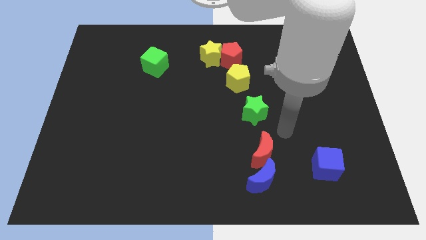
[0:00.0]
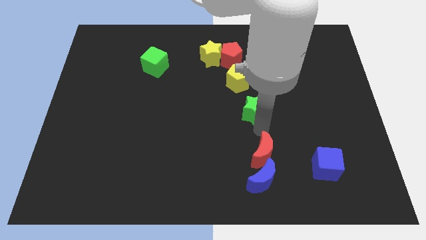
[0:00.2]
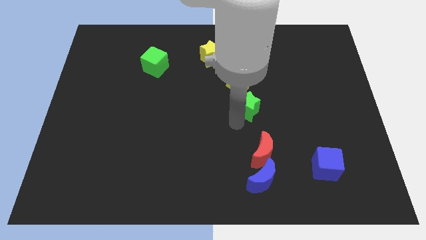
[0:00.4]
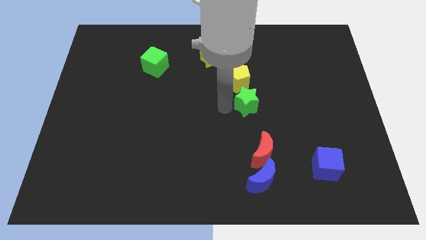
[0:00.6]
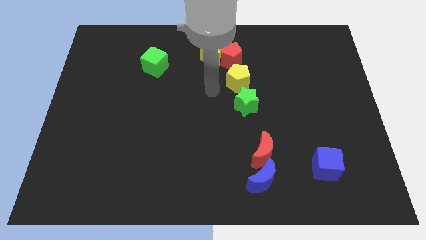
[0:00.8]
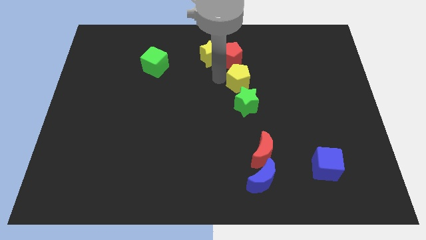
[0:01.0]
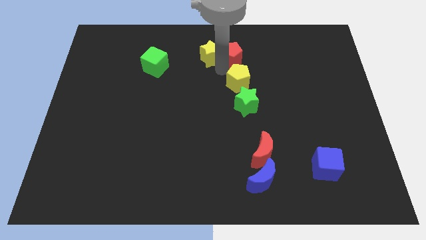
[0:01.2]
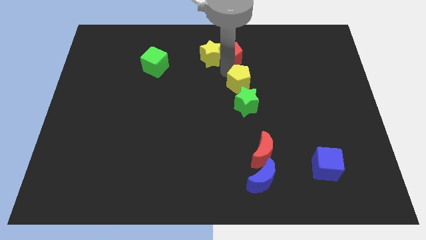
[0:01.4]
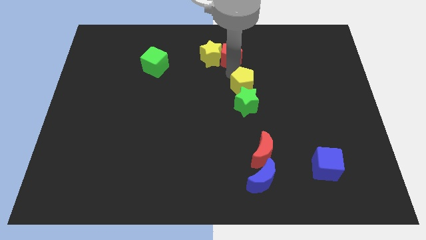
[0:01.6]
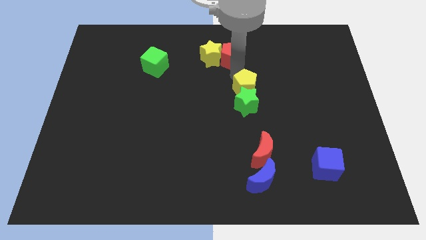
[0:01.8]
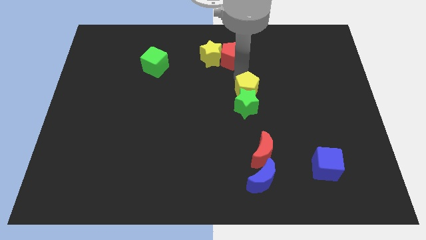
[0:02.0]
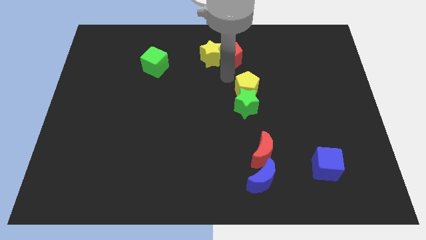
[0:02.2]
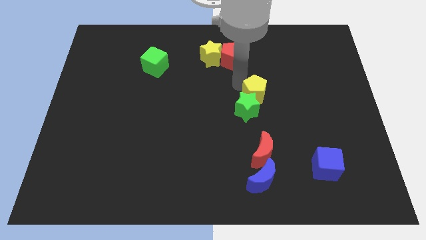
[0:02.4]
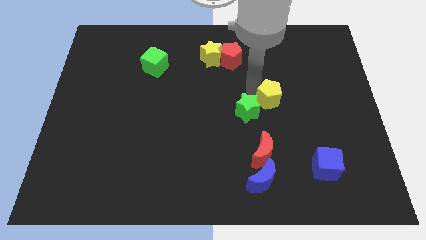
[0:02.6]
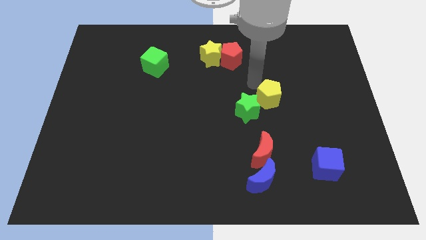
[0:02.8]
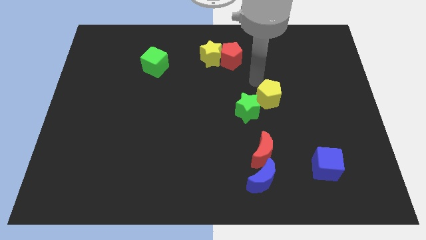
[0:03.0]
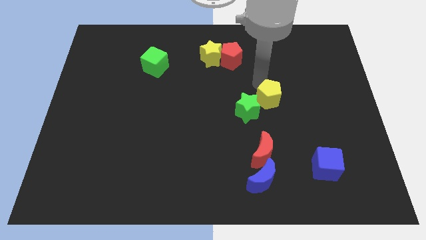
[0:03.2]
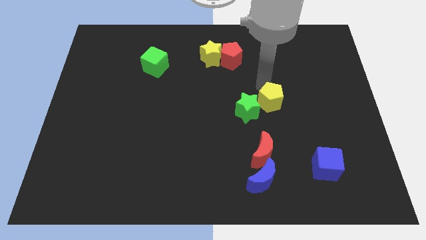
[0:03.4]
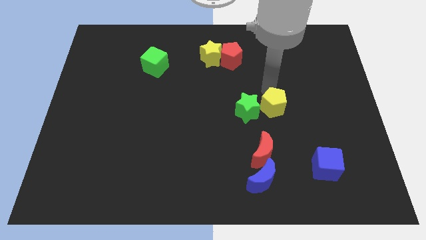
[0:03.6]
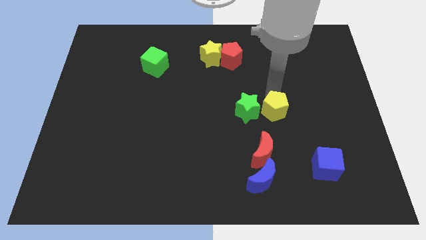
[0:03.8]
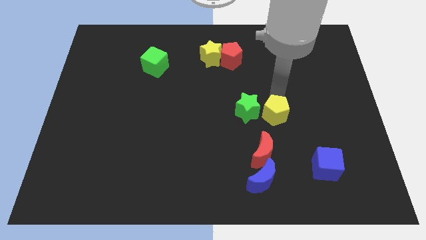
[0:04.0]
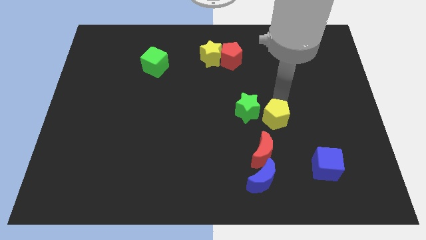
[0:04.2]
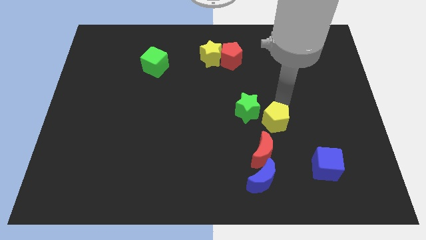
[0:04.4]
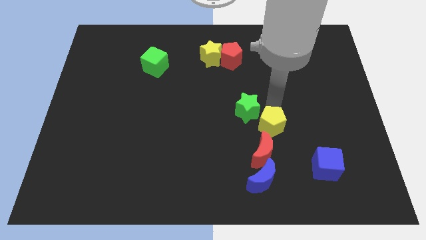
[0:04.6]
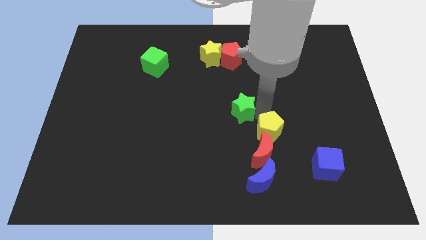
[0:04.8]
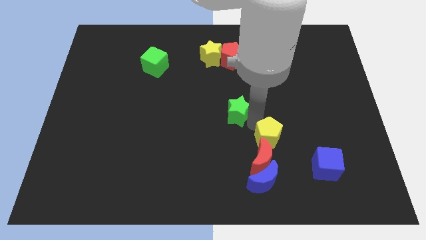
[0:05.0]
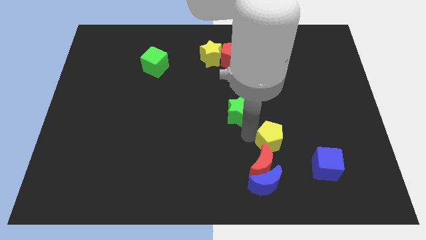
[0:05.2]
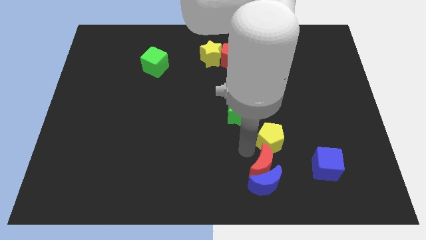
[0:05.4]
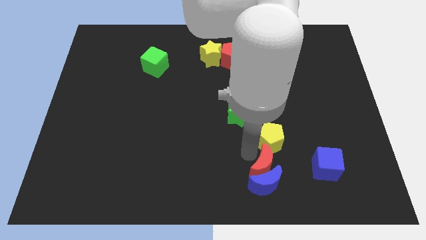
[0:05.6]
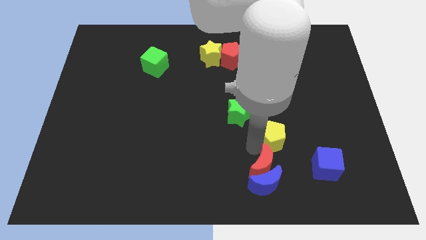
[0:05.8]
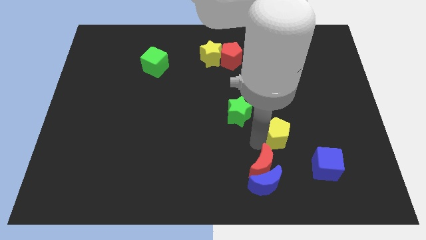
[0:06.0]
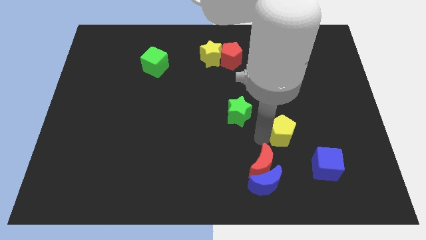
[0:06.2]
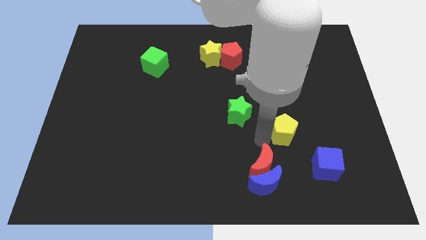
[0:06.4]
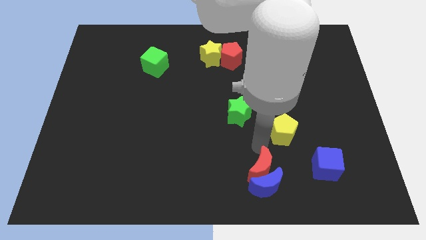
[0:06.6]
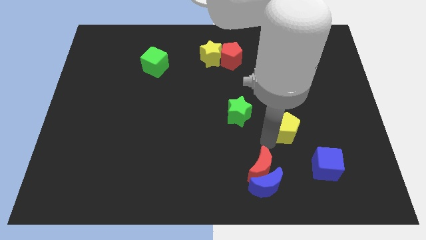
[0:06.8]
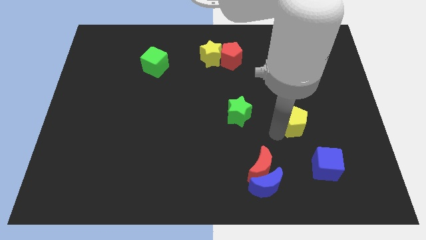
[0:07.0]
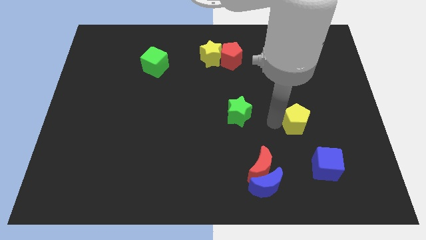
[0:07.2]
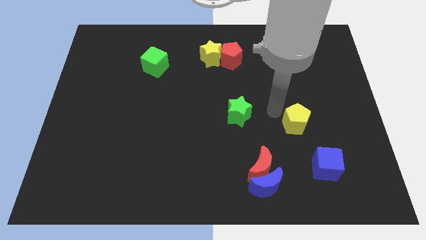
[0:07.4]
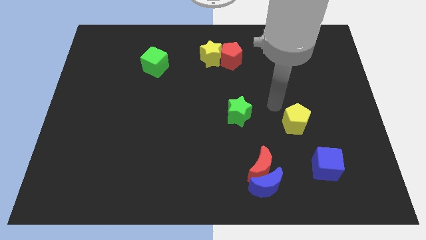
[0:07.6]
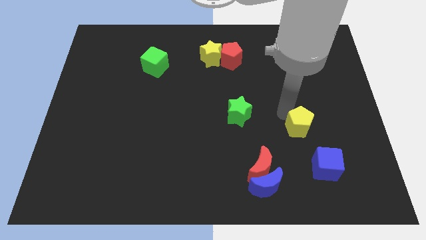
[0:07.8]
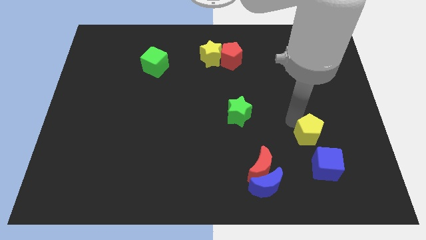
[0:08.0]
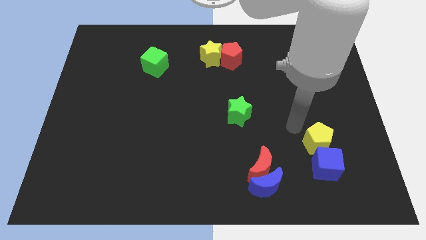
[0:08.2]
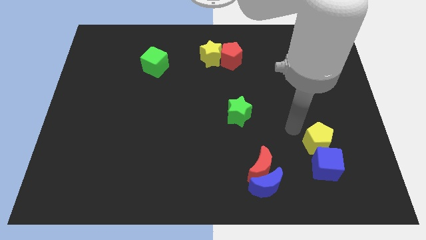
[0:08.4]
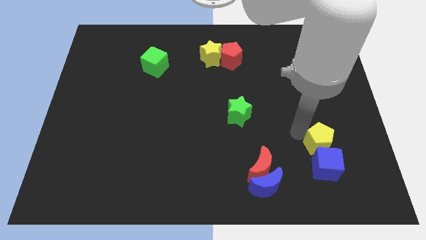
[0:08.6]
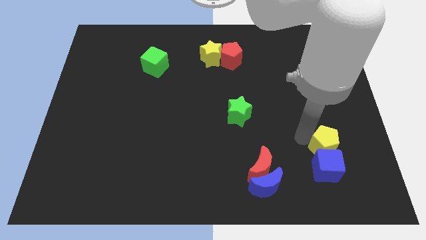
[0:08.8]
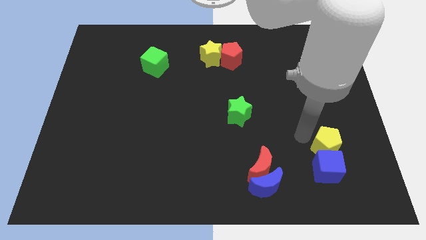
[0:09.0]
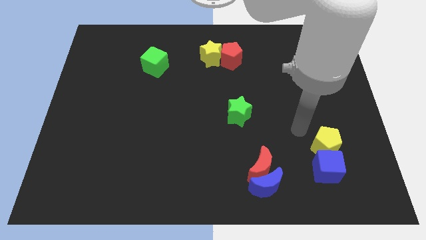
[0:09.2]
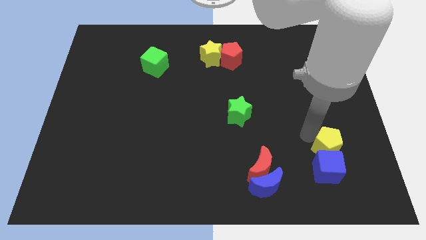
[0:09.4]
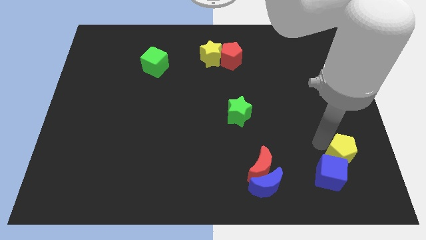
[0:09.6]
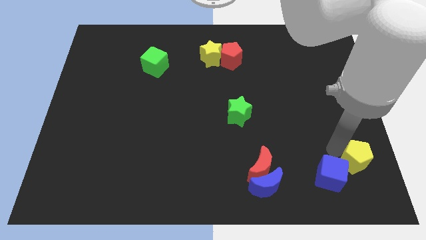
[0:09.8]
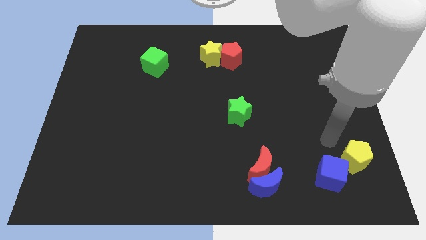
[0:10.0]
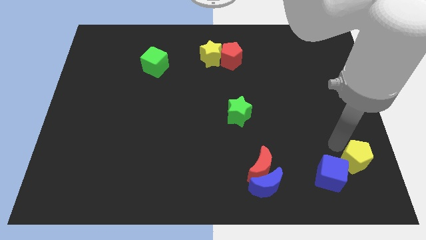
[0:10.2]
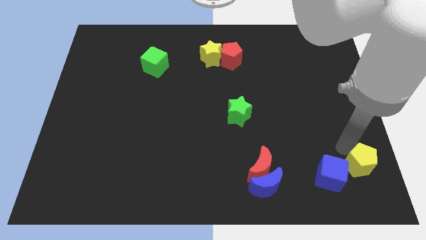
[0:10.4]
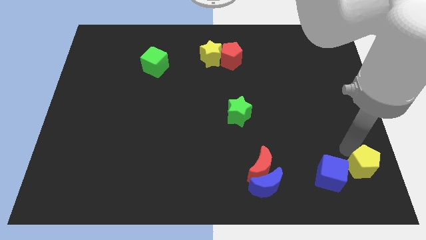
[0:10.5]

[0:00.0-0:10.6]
put the yellow pentagon to the bottom right corner

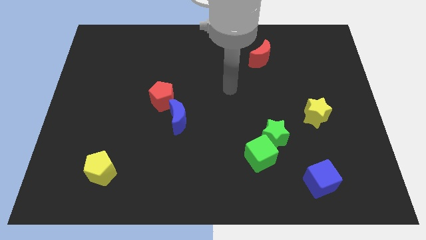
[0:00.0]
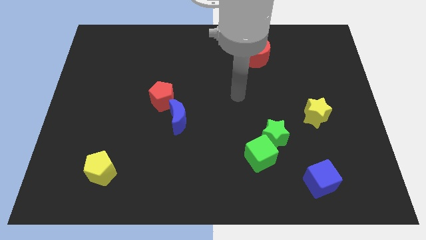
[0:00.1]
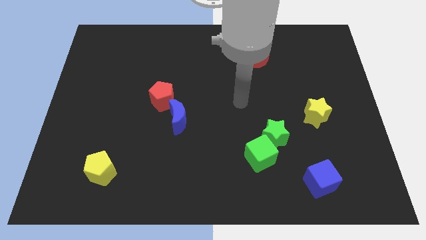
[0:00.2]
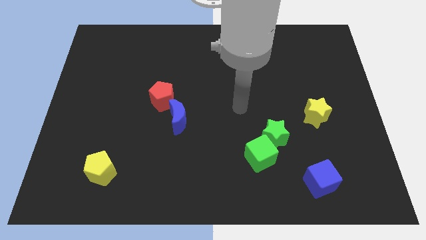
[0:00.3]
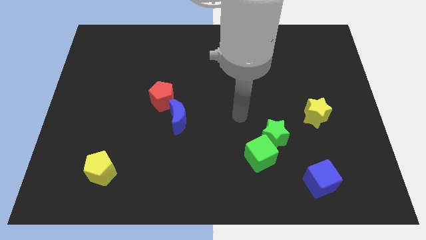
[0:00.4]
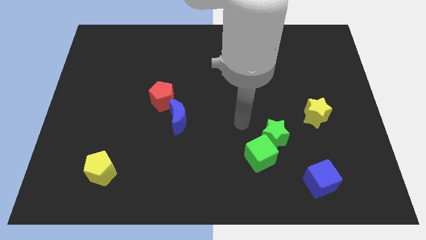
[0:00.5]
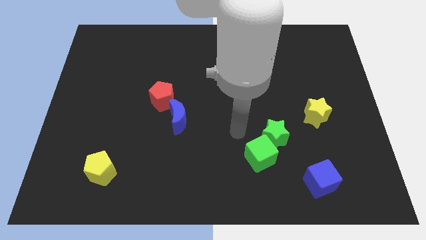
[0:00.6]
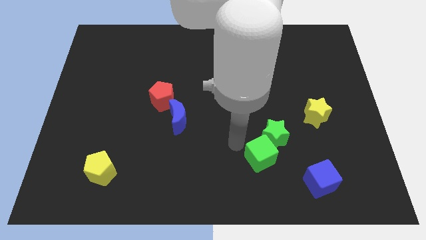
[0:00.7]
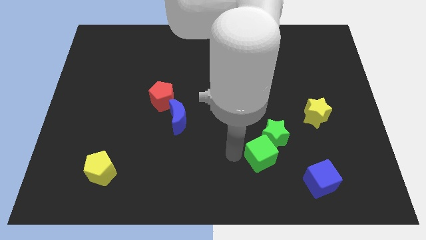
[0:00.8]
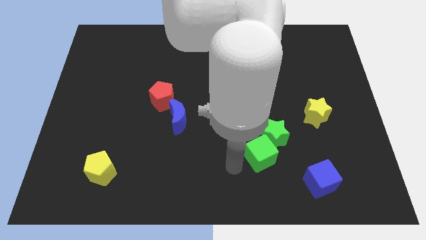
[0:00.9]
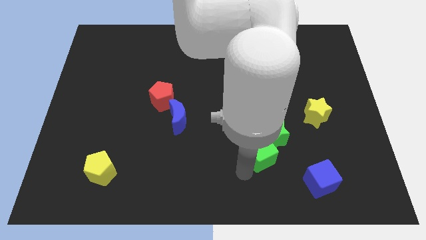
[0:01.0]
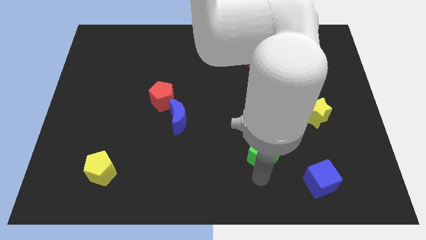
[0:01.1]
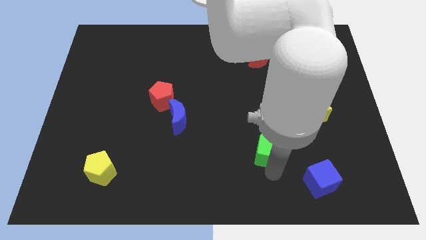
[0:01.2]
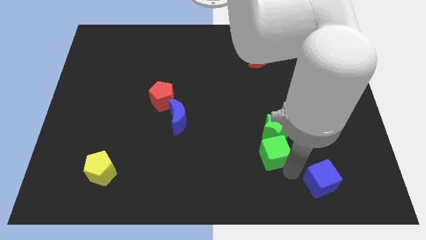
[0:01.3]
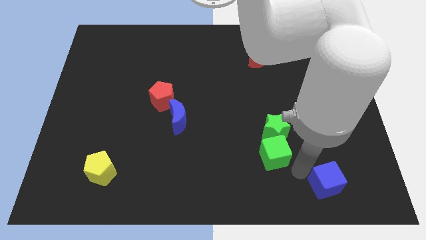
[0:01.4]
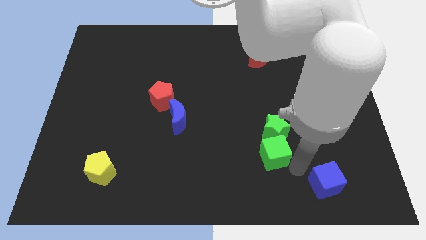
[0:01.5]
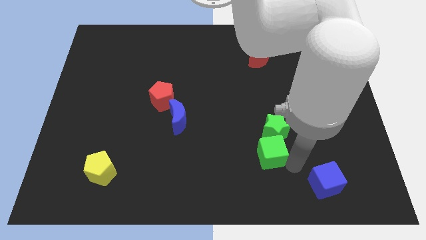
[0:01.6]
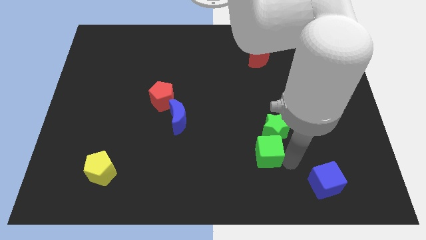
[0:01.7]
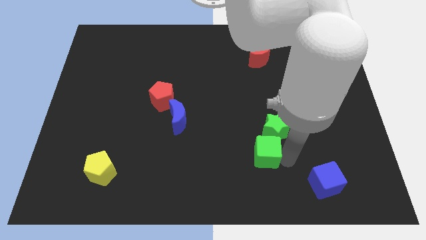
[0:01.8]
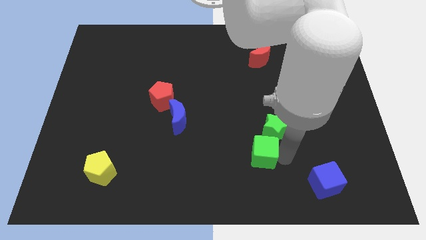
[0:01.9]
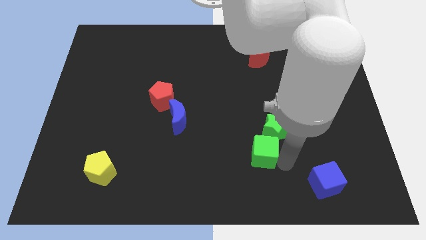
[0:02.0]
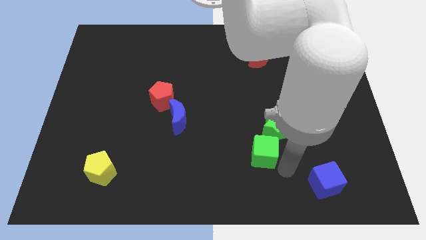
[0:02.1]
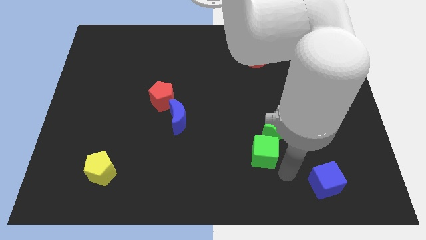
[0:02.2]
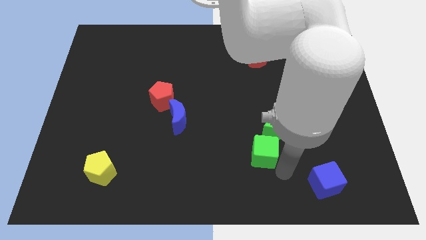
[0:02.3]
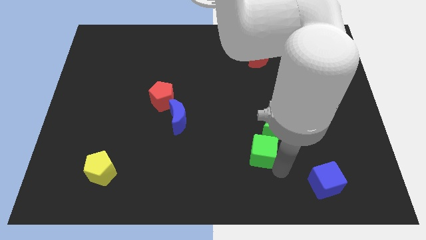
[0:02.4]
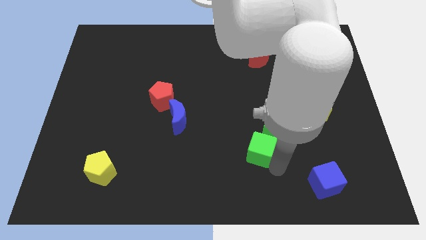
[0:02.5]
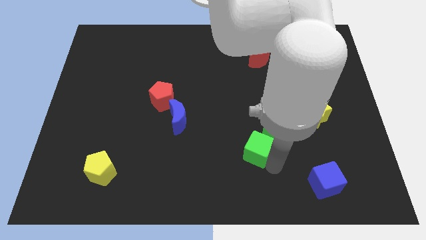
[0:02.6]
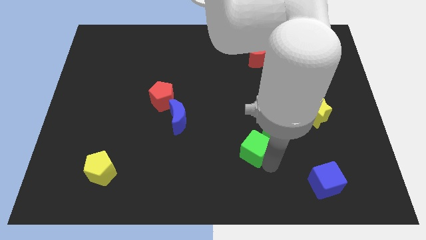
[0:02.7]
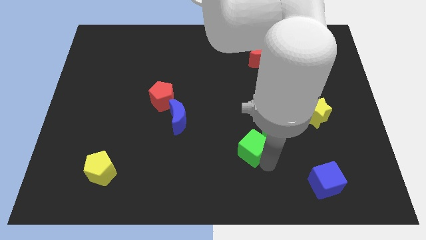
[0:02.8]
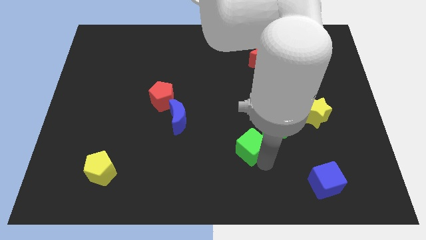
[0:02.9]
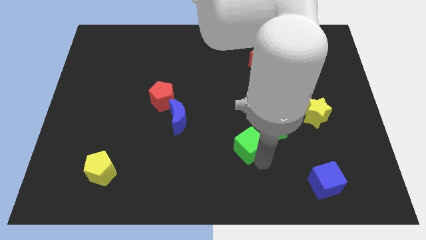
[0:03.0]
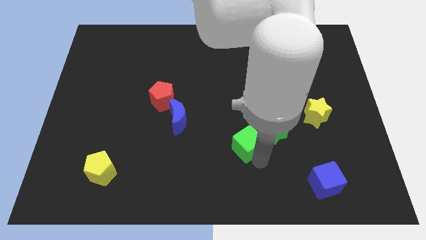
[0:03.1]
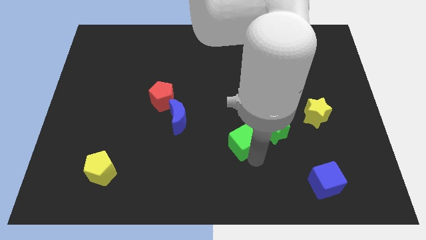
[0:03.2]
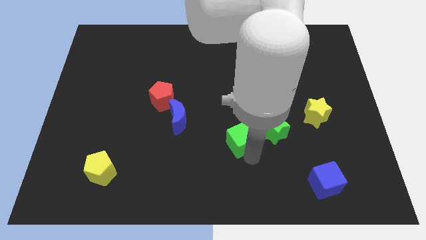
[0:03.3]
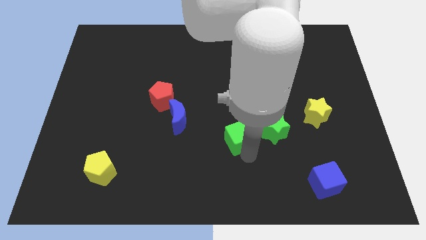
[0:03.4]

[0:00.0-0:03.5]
put the green cube to the center of the board
